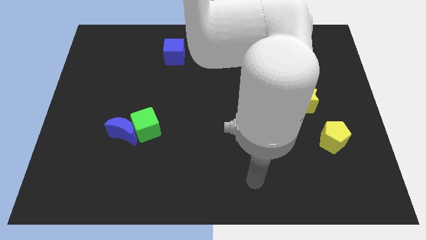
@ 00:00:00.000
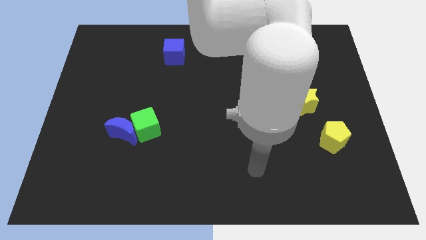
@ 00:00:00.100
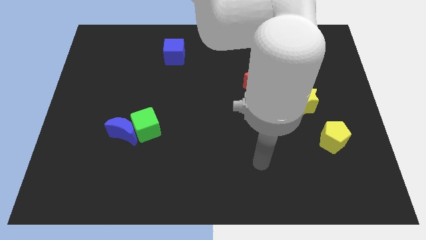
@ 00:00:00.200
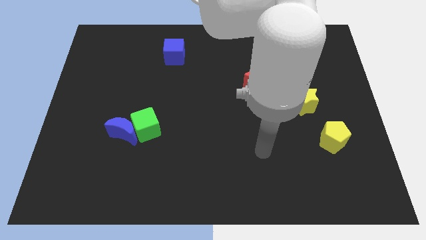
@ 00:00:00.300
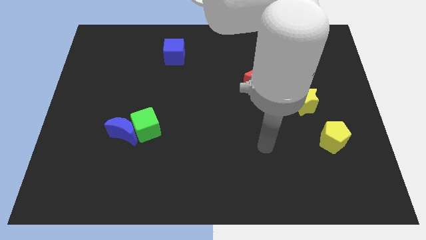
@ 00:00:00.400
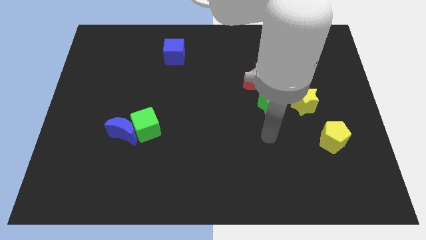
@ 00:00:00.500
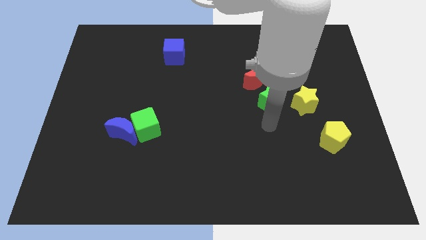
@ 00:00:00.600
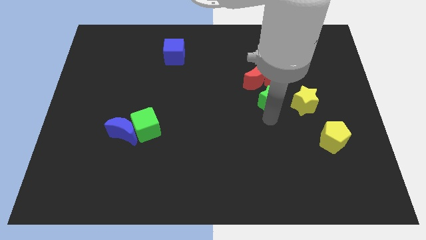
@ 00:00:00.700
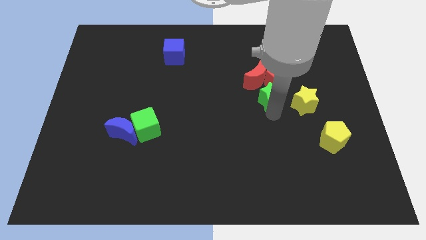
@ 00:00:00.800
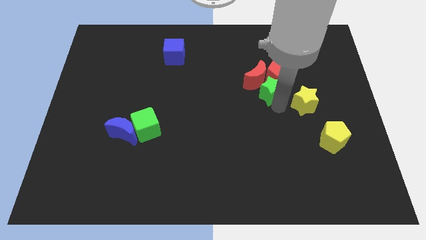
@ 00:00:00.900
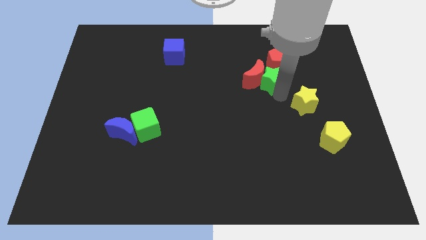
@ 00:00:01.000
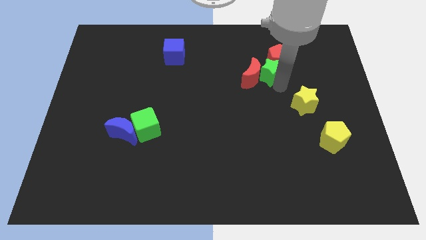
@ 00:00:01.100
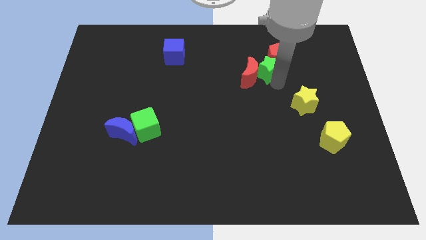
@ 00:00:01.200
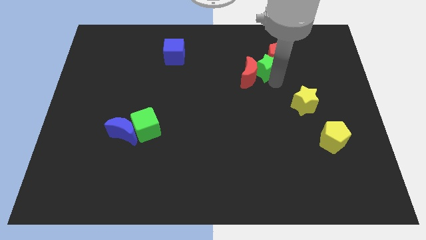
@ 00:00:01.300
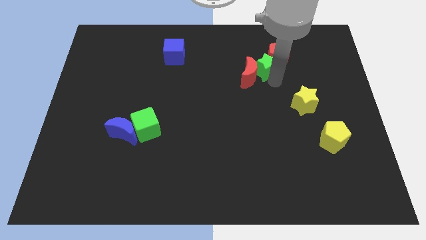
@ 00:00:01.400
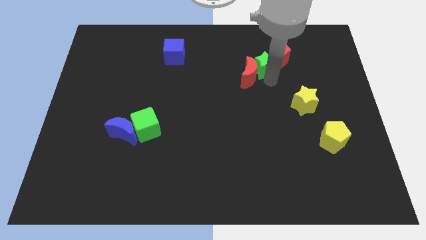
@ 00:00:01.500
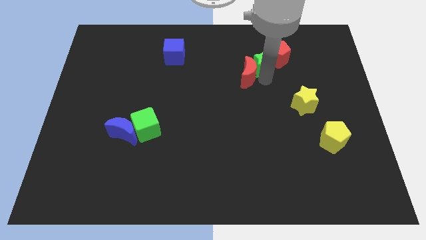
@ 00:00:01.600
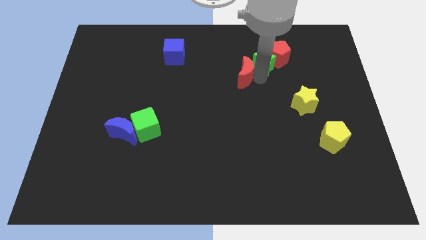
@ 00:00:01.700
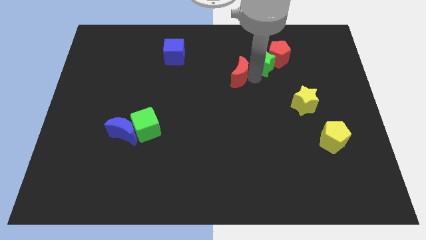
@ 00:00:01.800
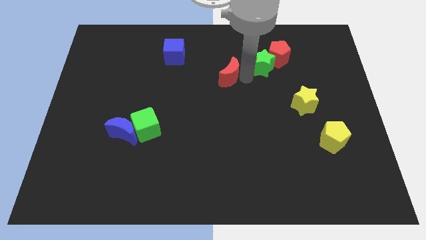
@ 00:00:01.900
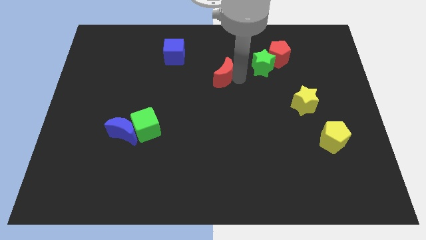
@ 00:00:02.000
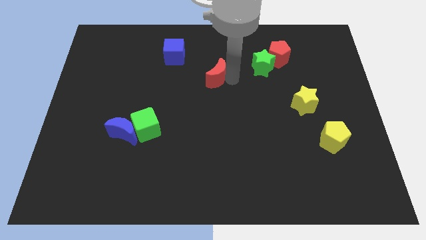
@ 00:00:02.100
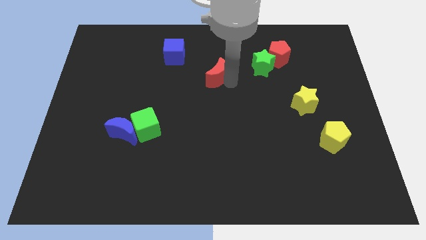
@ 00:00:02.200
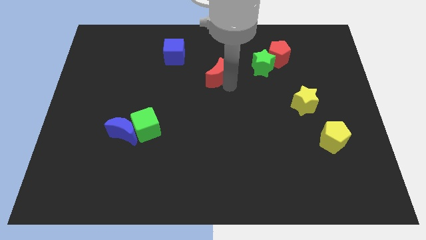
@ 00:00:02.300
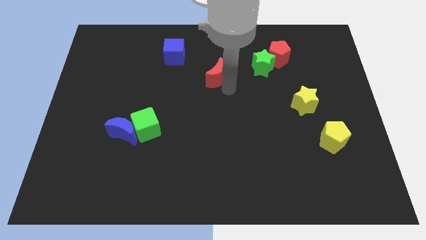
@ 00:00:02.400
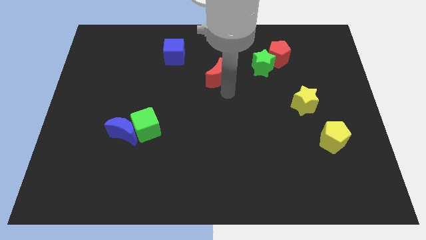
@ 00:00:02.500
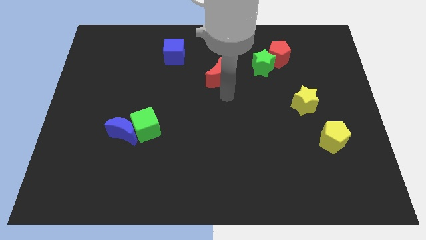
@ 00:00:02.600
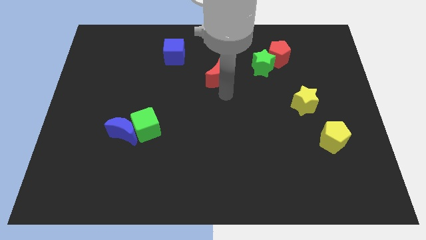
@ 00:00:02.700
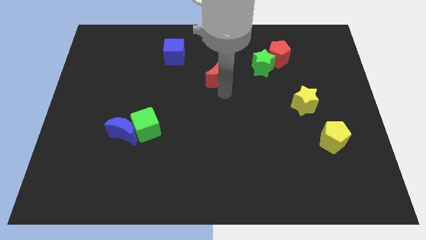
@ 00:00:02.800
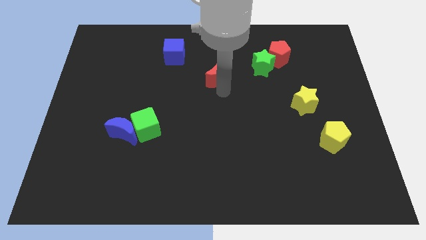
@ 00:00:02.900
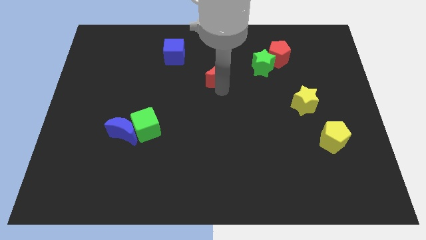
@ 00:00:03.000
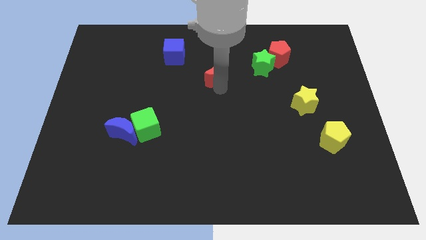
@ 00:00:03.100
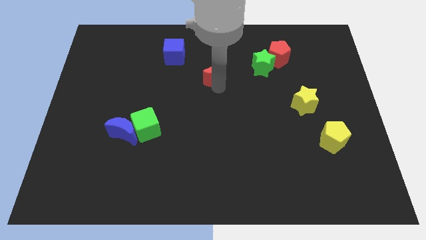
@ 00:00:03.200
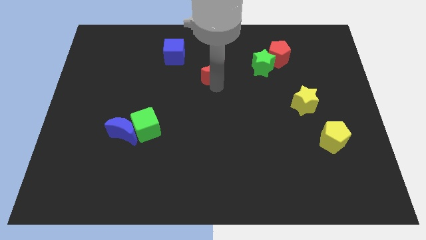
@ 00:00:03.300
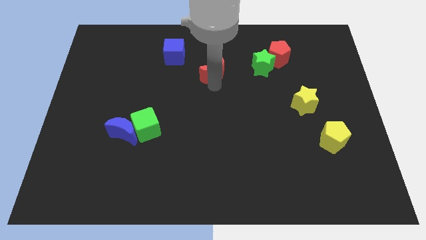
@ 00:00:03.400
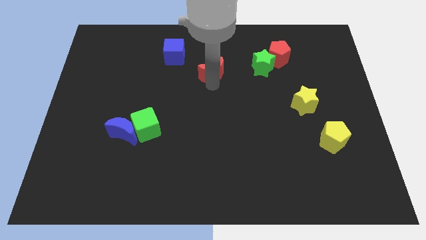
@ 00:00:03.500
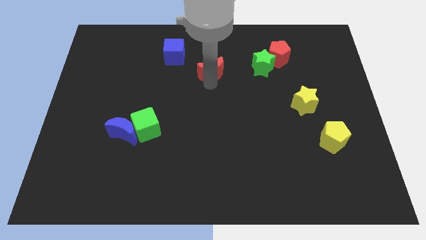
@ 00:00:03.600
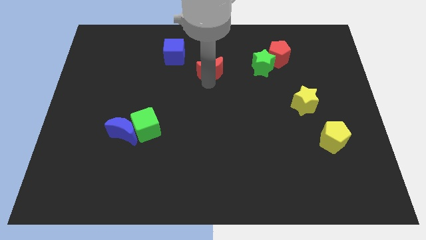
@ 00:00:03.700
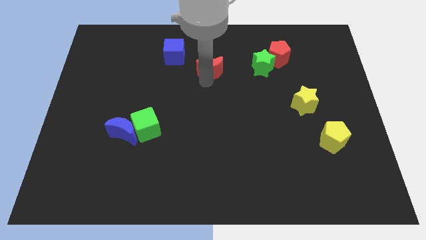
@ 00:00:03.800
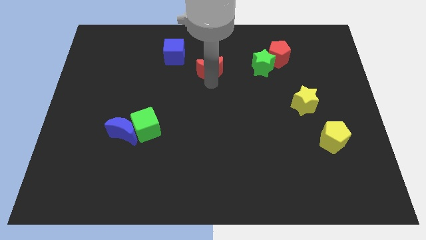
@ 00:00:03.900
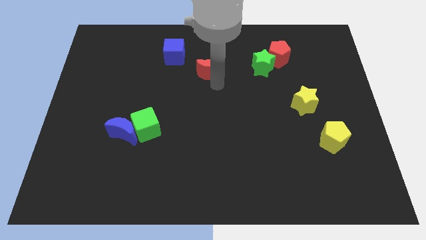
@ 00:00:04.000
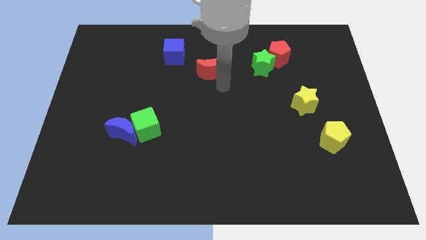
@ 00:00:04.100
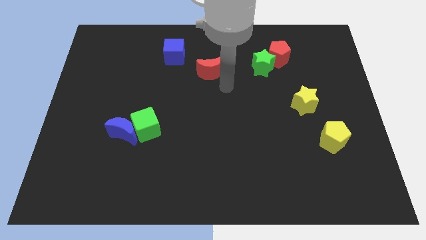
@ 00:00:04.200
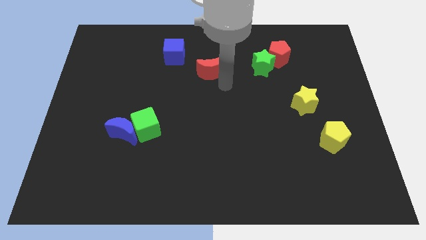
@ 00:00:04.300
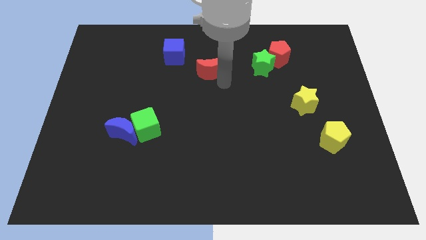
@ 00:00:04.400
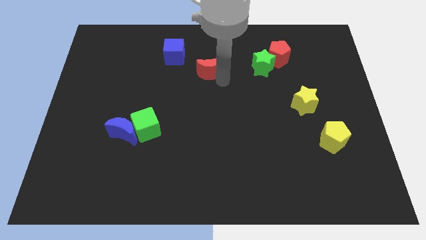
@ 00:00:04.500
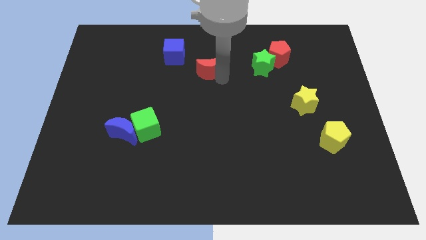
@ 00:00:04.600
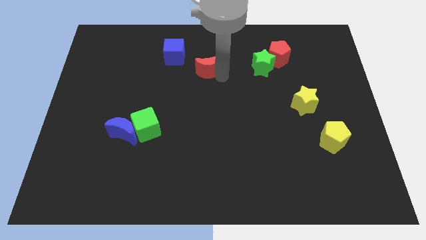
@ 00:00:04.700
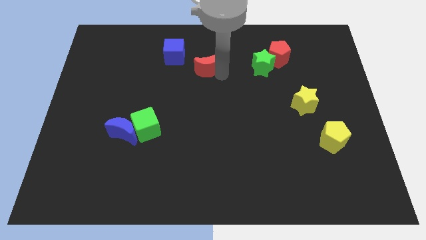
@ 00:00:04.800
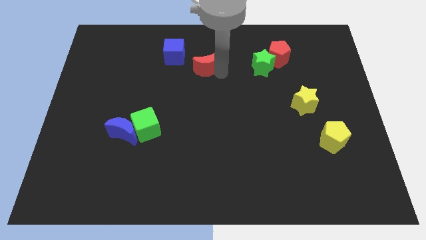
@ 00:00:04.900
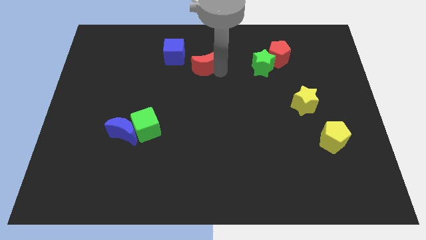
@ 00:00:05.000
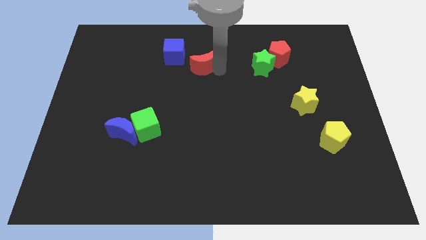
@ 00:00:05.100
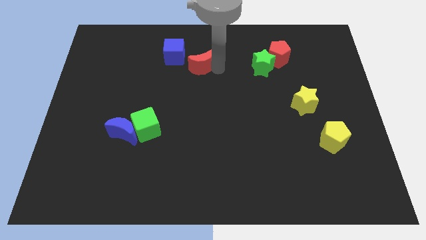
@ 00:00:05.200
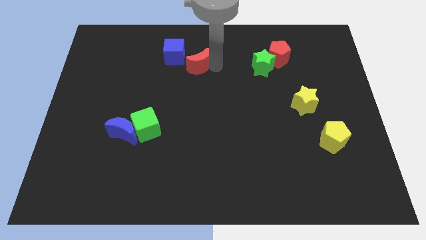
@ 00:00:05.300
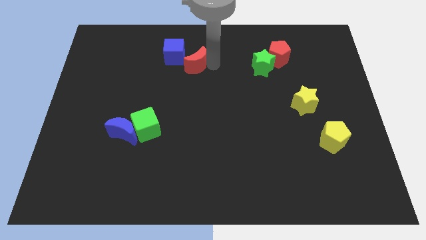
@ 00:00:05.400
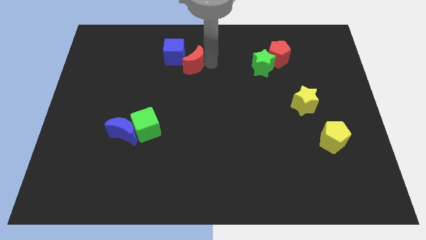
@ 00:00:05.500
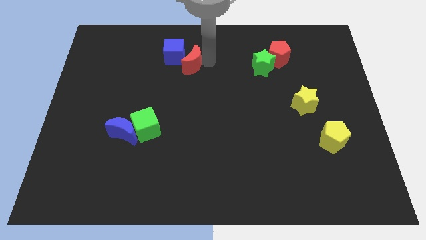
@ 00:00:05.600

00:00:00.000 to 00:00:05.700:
move the red moon towards the blue cube

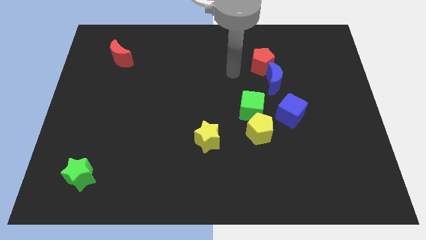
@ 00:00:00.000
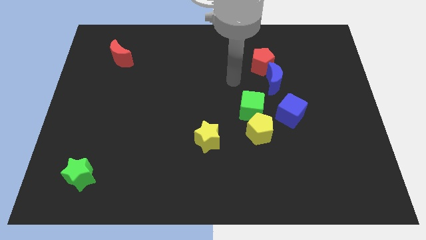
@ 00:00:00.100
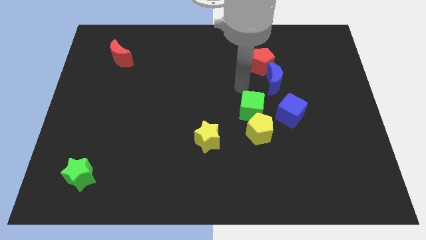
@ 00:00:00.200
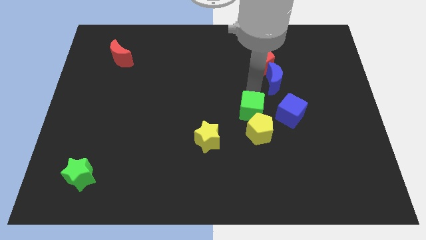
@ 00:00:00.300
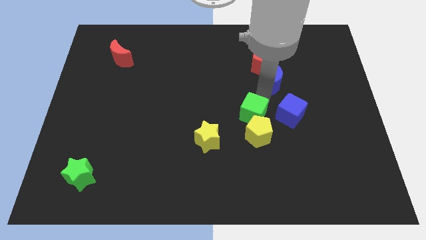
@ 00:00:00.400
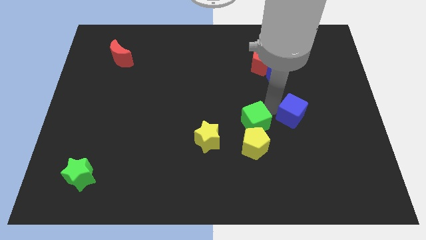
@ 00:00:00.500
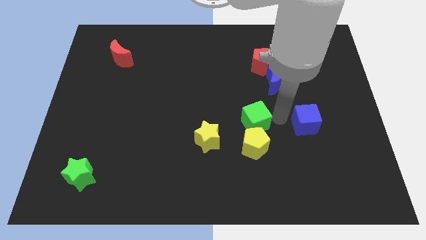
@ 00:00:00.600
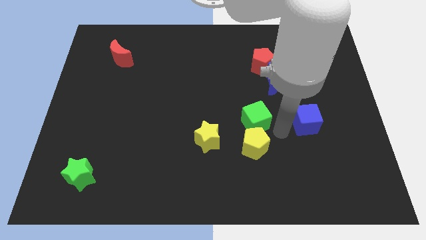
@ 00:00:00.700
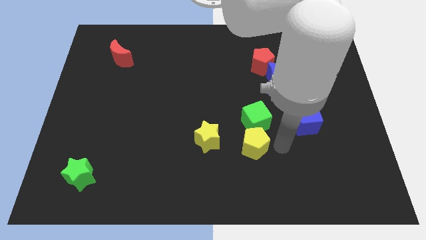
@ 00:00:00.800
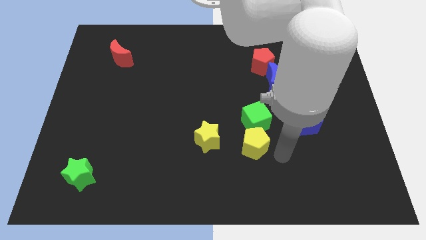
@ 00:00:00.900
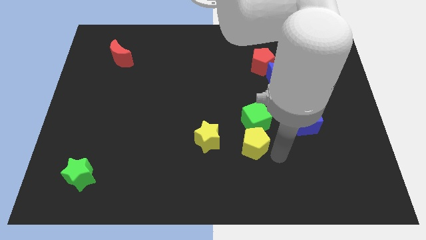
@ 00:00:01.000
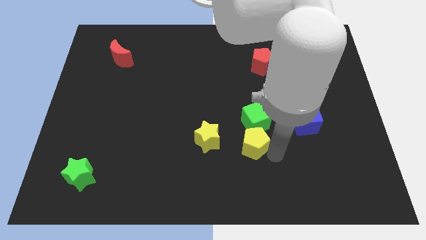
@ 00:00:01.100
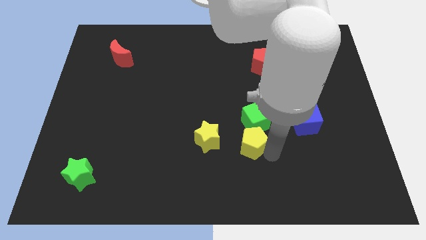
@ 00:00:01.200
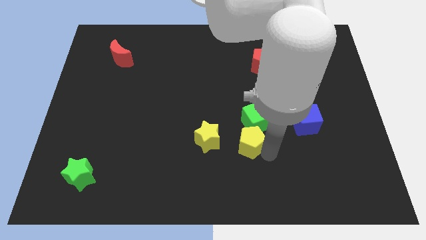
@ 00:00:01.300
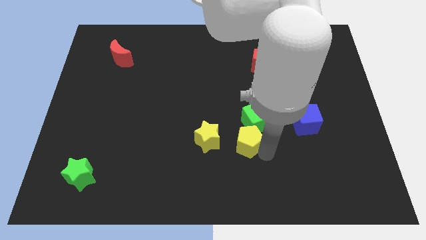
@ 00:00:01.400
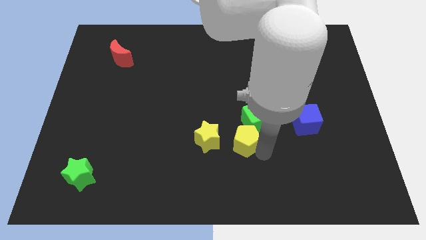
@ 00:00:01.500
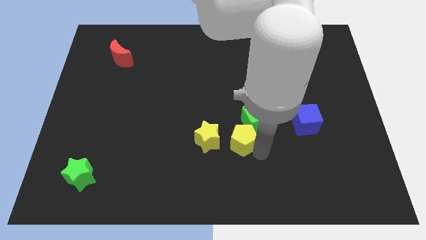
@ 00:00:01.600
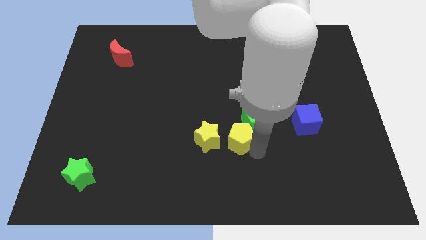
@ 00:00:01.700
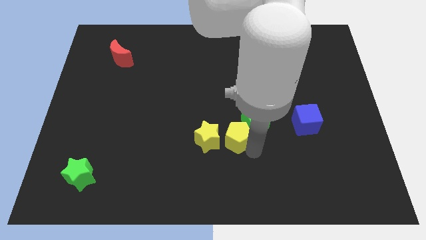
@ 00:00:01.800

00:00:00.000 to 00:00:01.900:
push the yellow pentagon next to the yellow star
